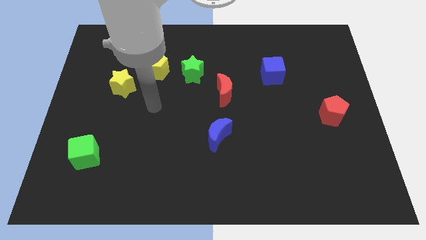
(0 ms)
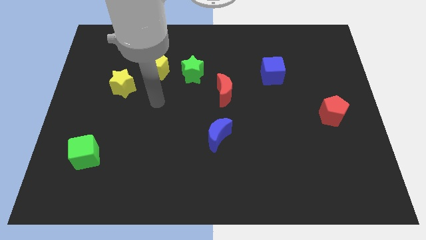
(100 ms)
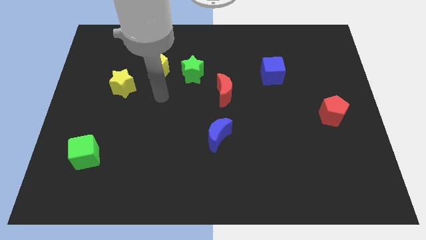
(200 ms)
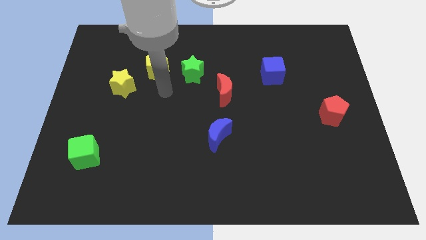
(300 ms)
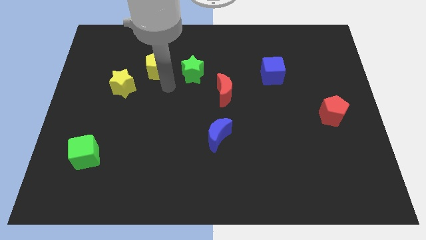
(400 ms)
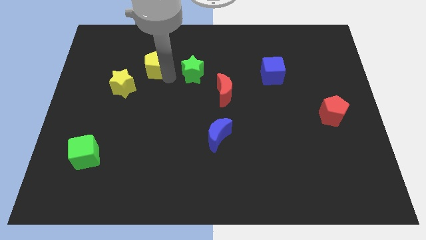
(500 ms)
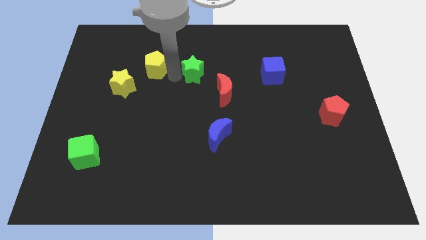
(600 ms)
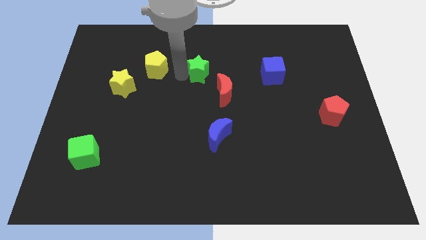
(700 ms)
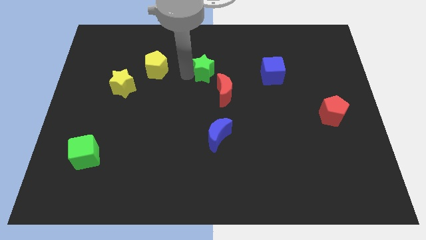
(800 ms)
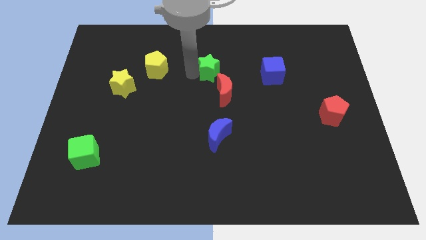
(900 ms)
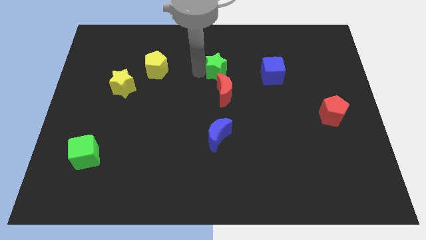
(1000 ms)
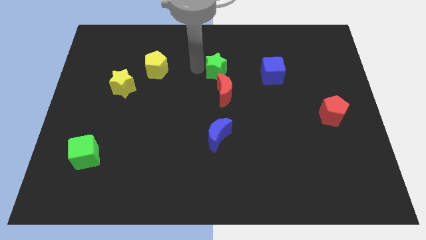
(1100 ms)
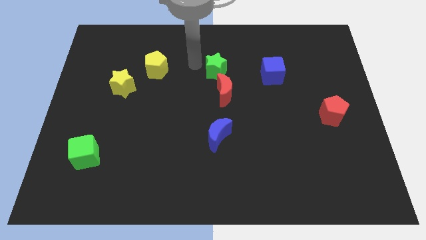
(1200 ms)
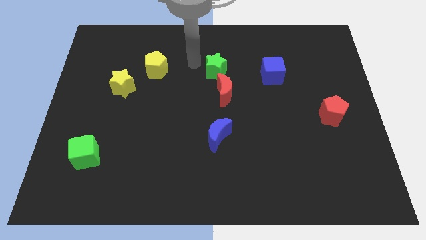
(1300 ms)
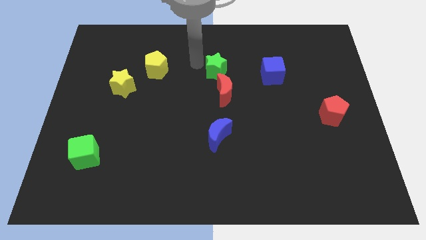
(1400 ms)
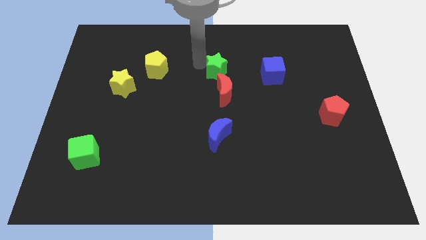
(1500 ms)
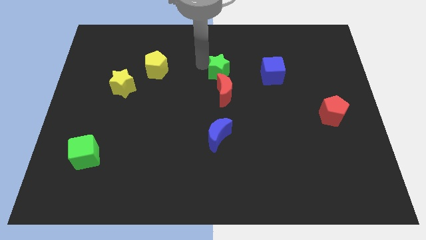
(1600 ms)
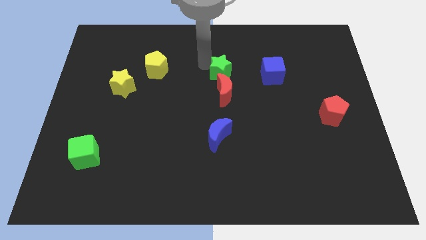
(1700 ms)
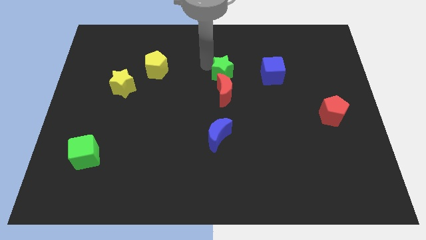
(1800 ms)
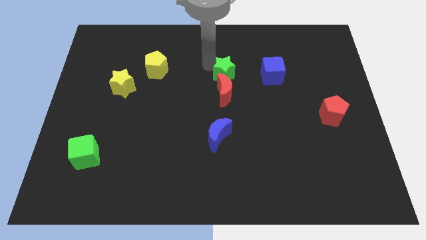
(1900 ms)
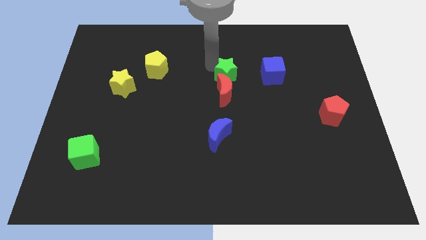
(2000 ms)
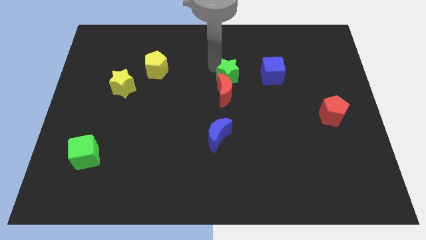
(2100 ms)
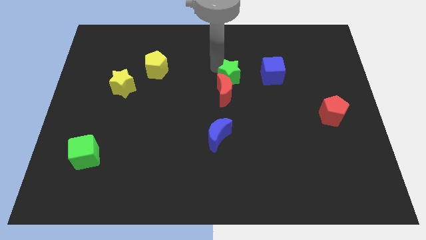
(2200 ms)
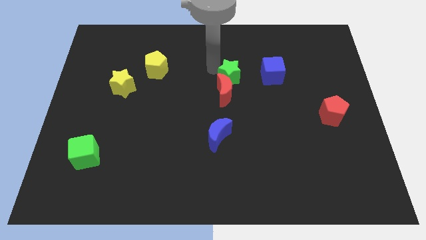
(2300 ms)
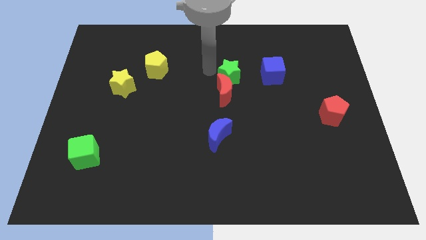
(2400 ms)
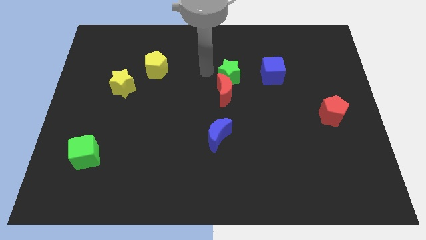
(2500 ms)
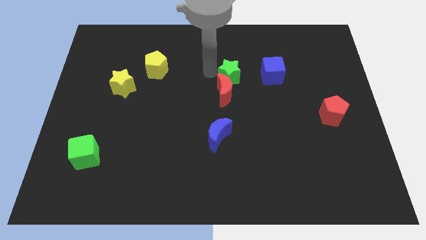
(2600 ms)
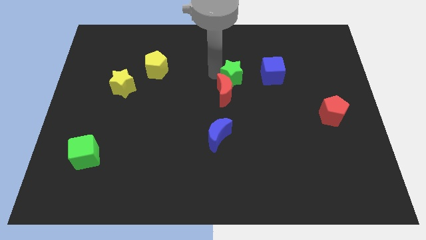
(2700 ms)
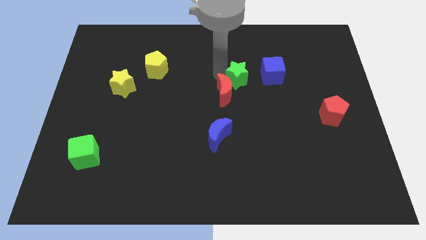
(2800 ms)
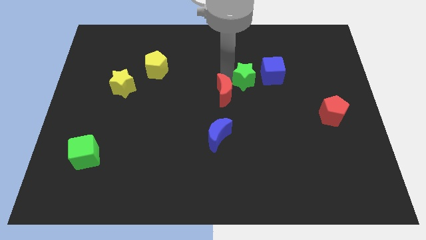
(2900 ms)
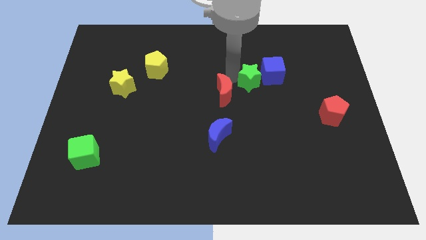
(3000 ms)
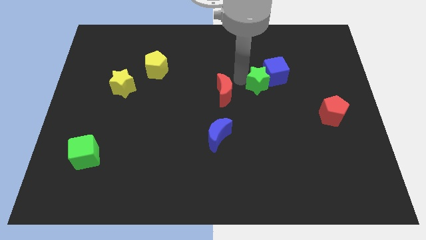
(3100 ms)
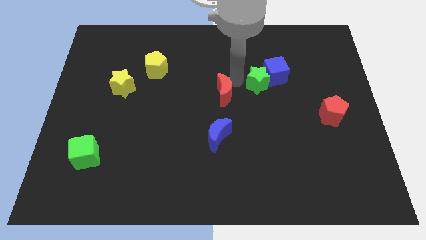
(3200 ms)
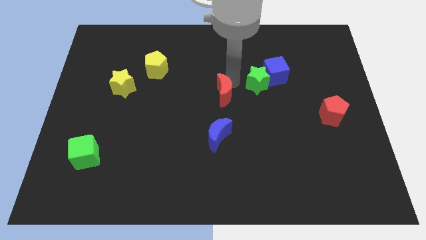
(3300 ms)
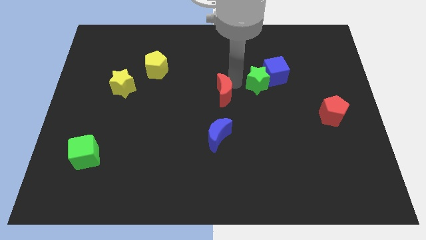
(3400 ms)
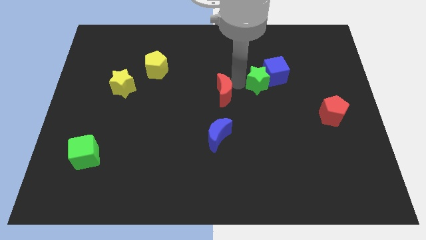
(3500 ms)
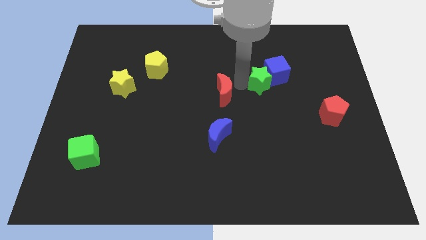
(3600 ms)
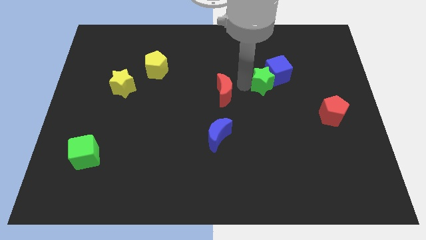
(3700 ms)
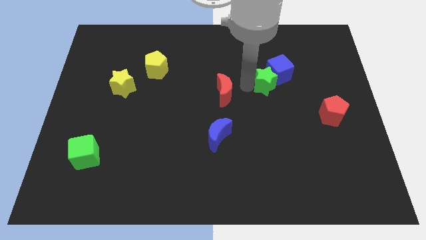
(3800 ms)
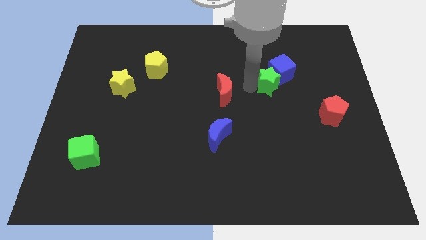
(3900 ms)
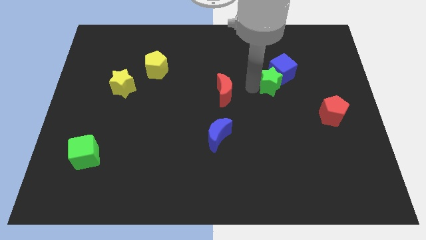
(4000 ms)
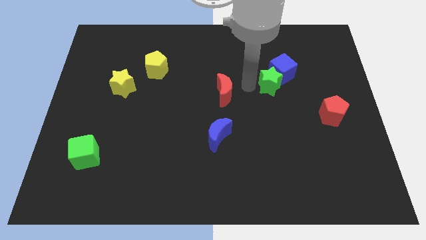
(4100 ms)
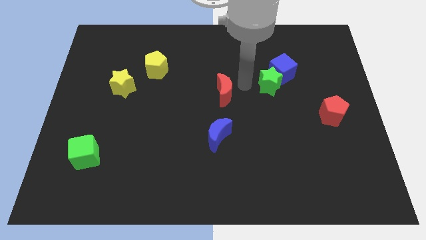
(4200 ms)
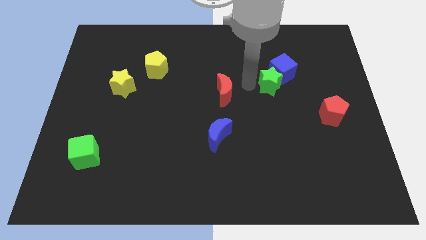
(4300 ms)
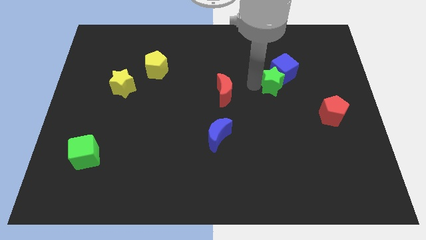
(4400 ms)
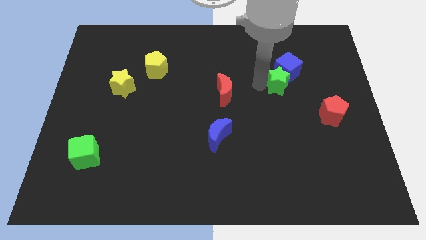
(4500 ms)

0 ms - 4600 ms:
push the green star right

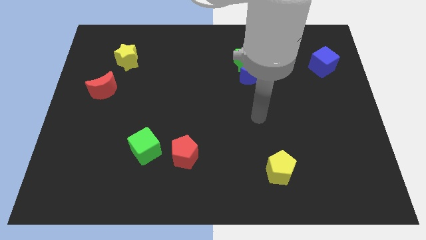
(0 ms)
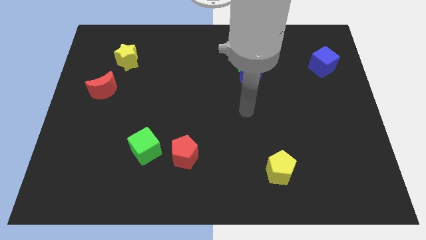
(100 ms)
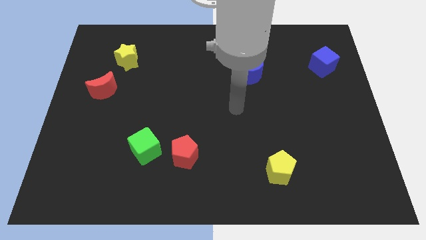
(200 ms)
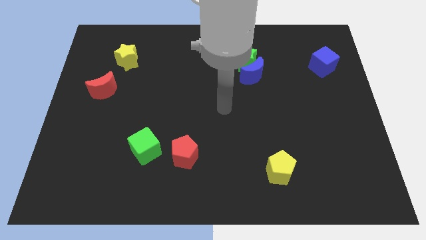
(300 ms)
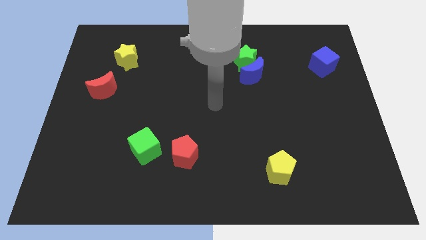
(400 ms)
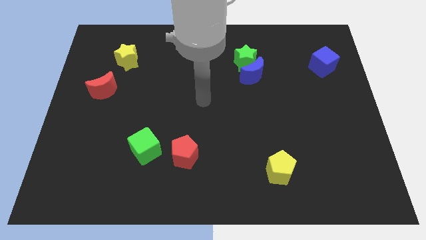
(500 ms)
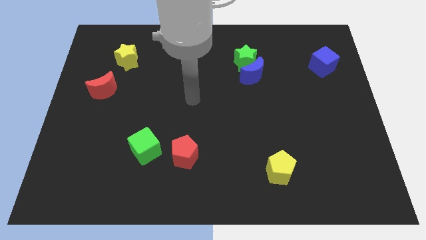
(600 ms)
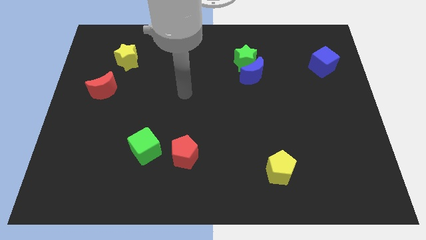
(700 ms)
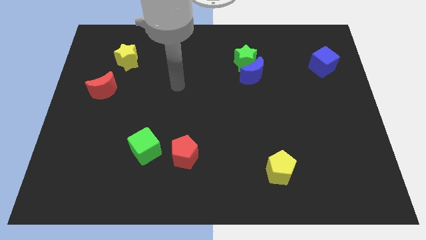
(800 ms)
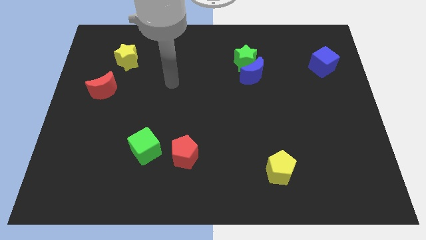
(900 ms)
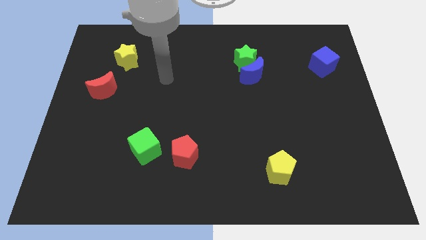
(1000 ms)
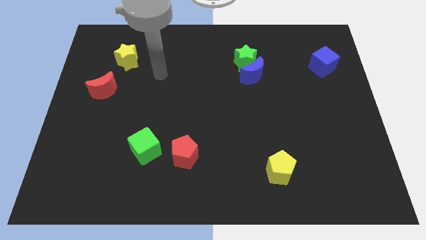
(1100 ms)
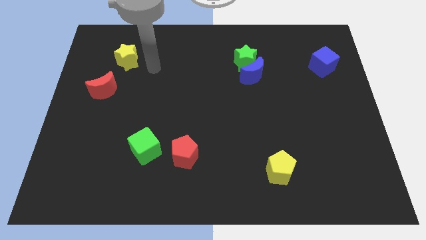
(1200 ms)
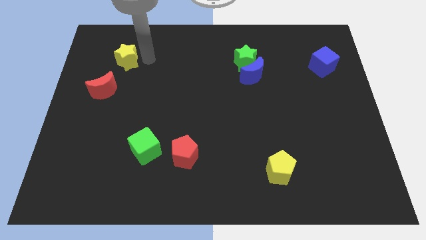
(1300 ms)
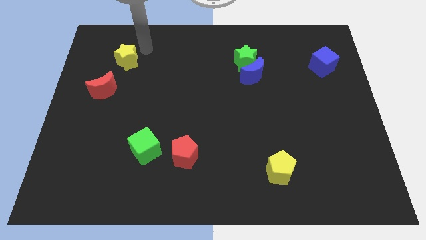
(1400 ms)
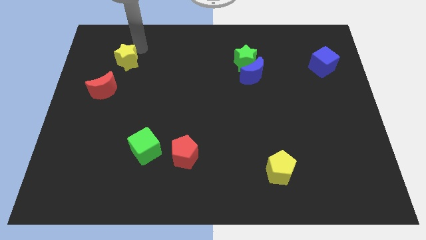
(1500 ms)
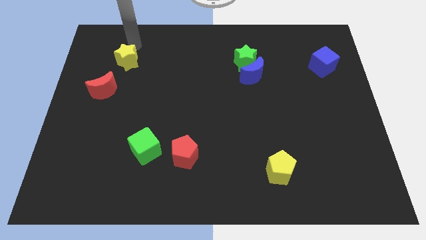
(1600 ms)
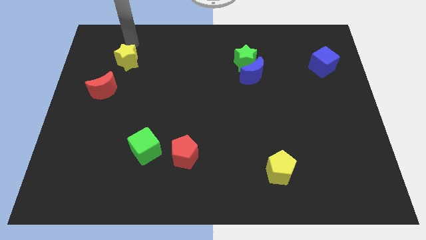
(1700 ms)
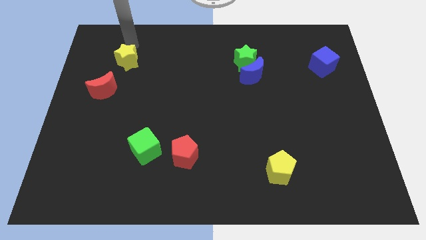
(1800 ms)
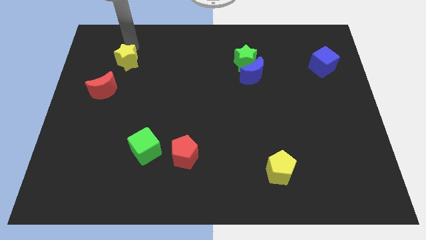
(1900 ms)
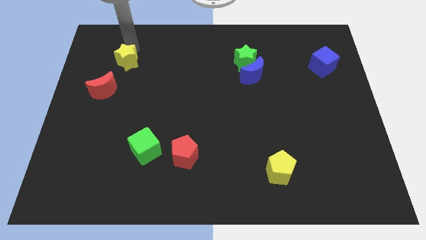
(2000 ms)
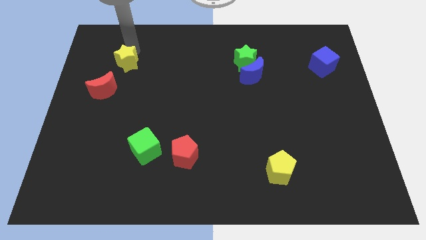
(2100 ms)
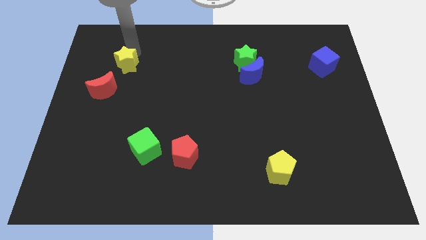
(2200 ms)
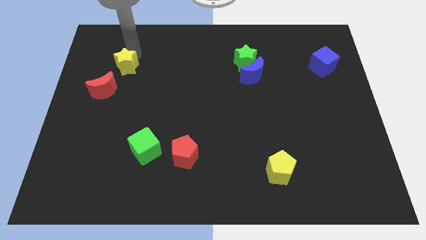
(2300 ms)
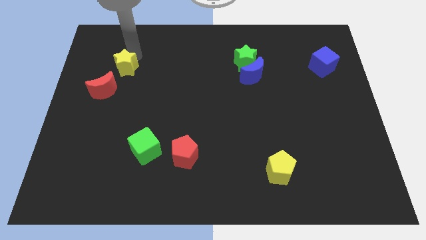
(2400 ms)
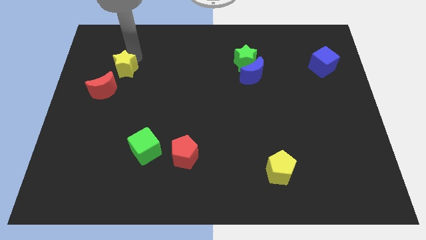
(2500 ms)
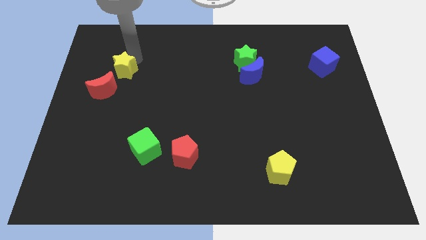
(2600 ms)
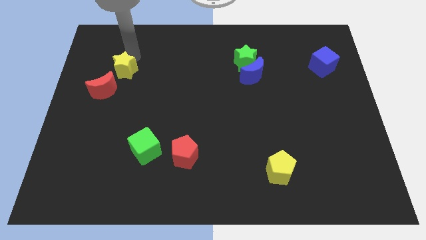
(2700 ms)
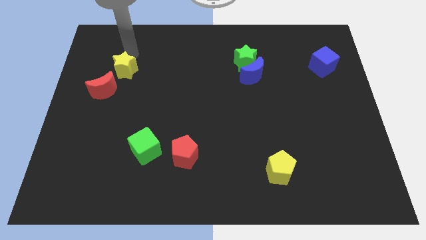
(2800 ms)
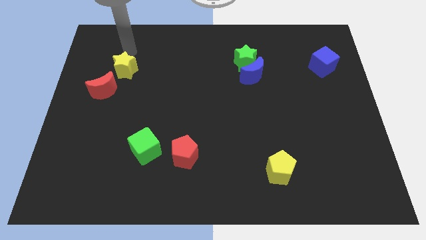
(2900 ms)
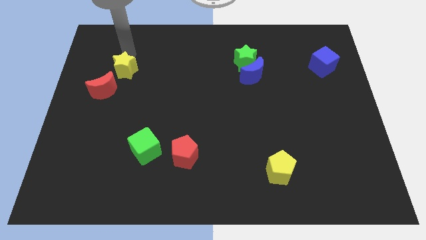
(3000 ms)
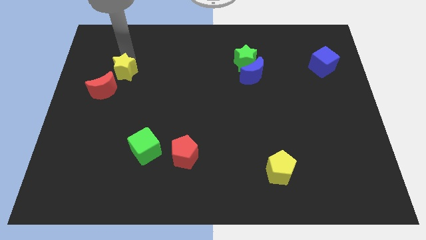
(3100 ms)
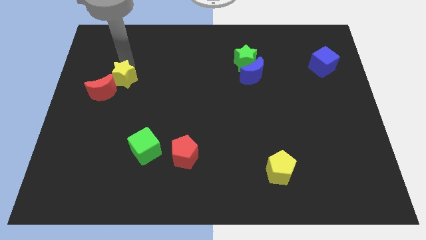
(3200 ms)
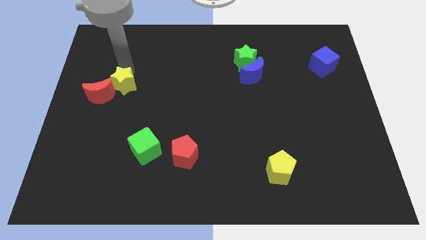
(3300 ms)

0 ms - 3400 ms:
move the yellow star a little bit down

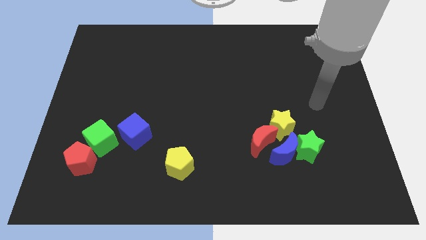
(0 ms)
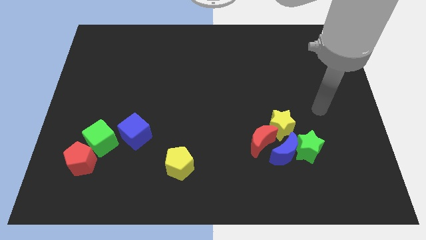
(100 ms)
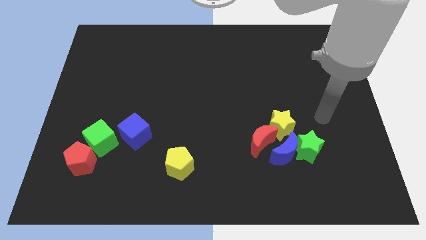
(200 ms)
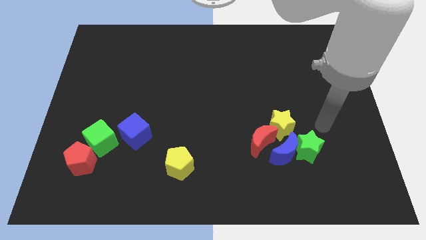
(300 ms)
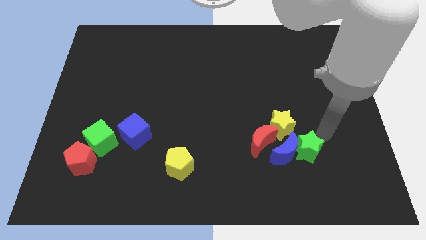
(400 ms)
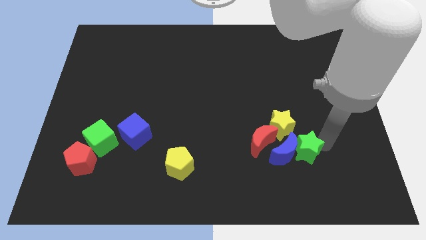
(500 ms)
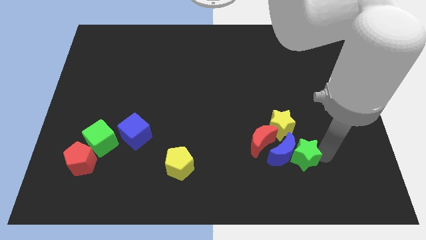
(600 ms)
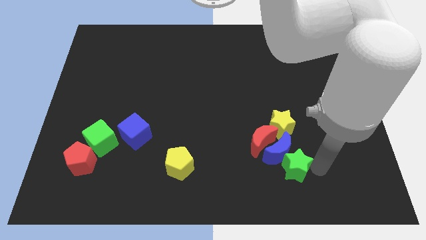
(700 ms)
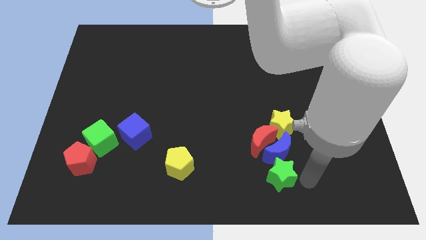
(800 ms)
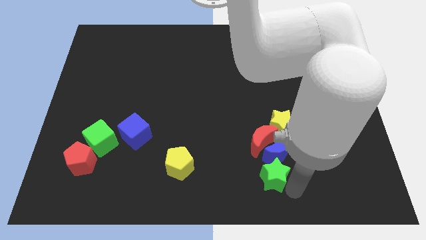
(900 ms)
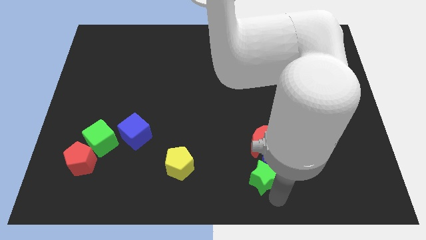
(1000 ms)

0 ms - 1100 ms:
push the green star slightly left
